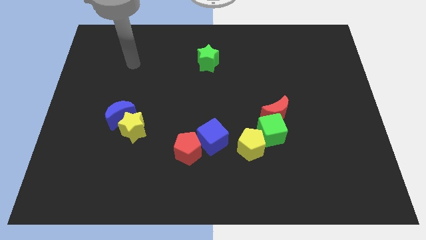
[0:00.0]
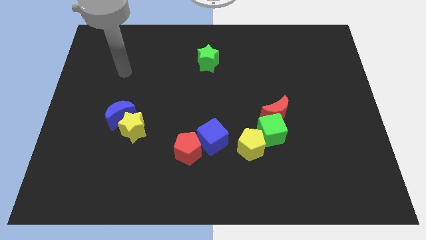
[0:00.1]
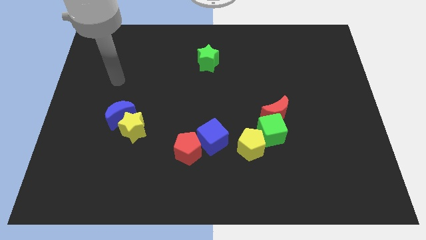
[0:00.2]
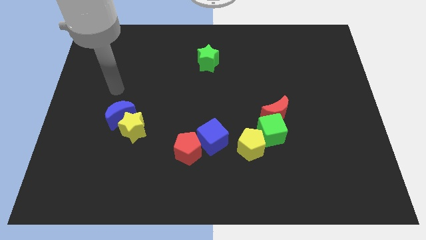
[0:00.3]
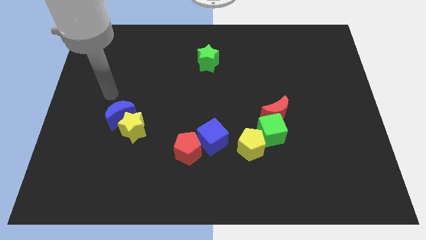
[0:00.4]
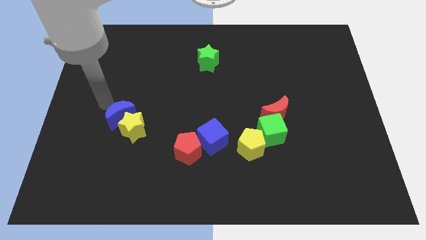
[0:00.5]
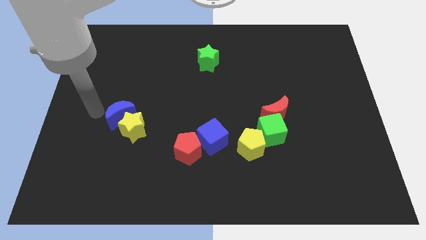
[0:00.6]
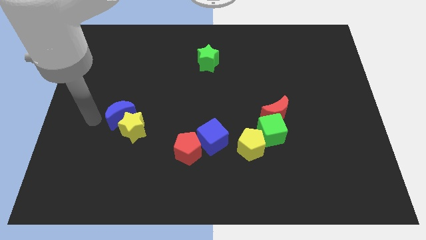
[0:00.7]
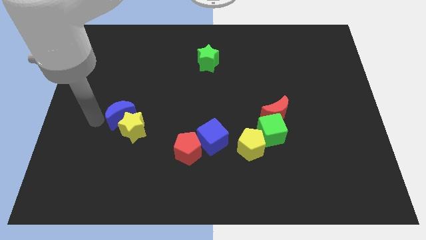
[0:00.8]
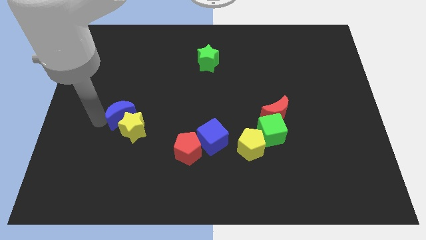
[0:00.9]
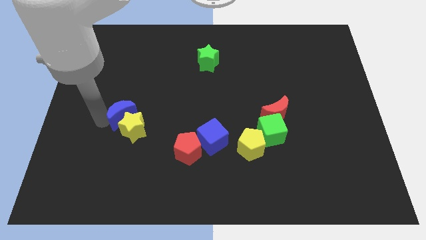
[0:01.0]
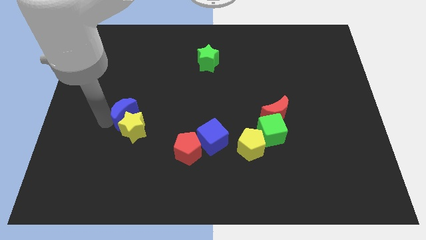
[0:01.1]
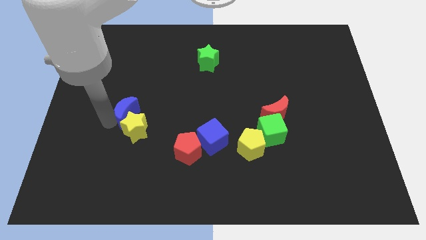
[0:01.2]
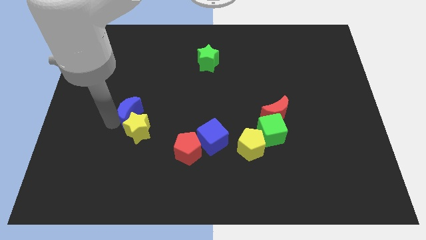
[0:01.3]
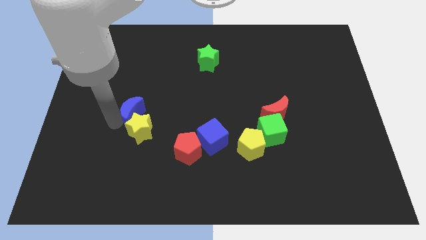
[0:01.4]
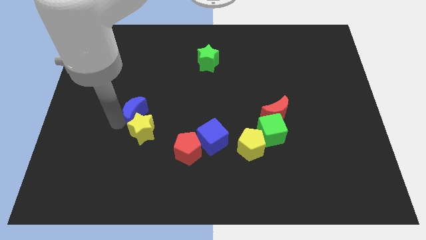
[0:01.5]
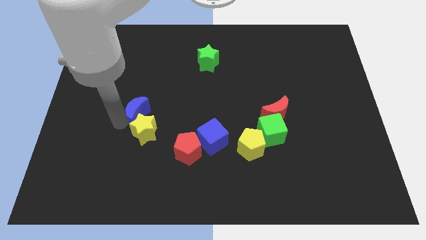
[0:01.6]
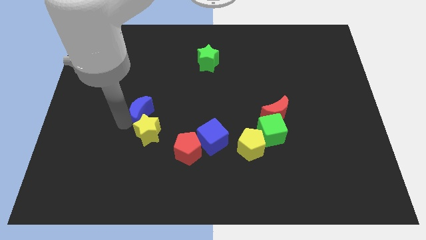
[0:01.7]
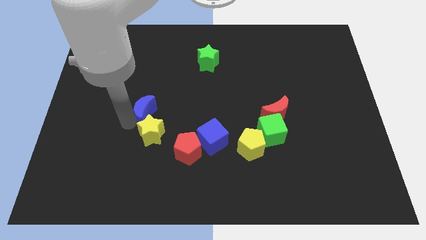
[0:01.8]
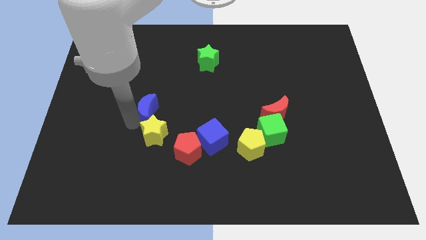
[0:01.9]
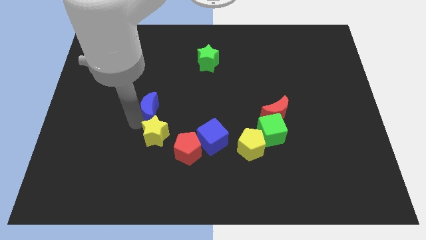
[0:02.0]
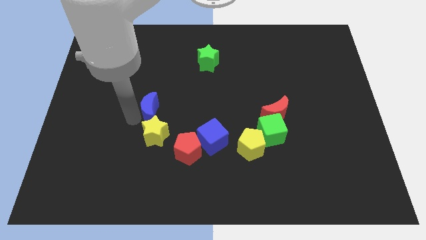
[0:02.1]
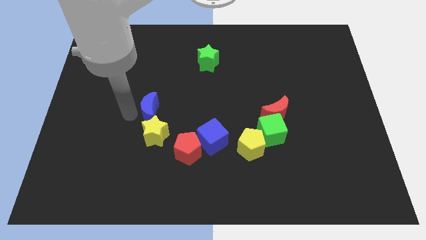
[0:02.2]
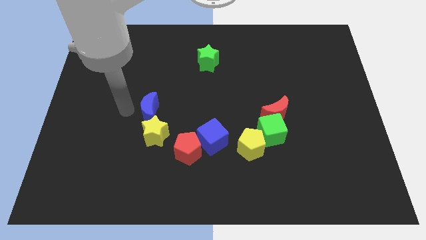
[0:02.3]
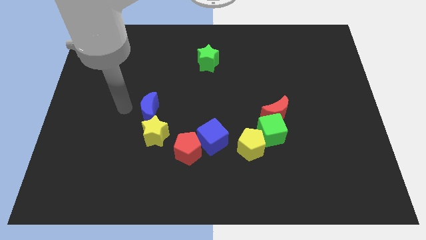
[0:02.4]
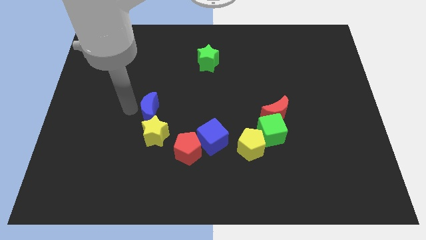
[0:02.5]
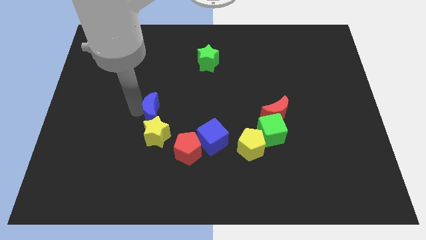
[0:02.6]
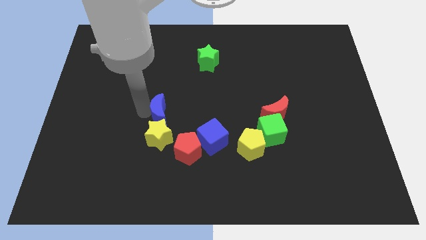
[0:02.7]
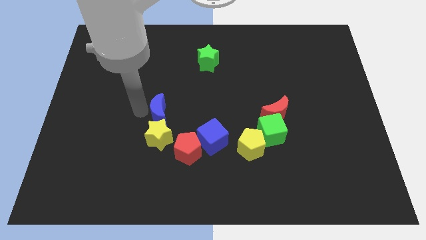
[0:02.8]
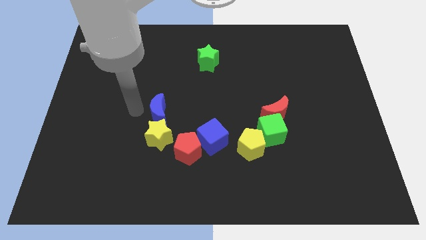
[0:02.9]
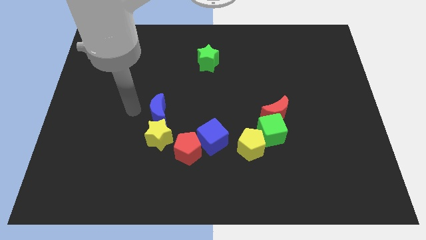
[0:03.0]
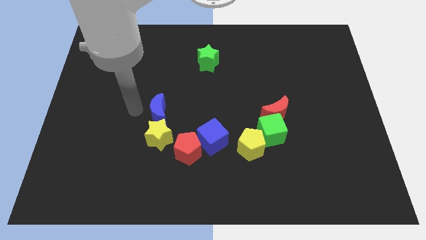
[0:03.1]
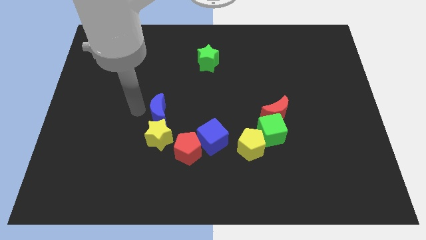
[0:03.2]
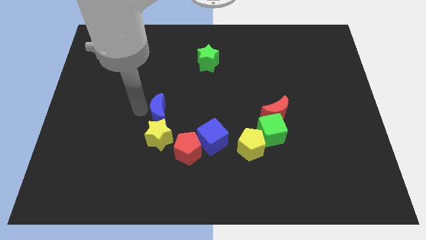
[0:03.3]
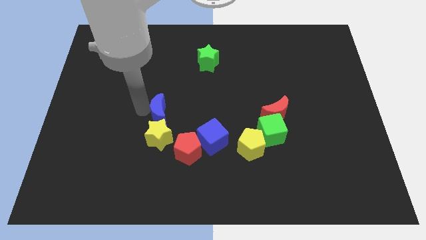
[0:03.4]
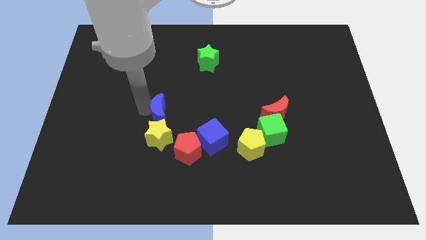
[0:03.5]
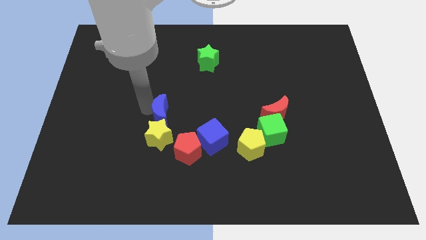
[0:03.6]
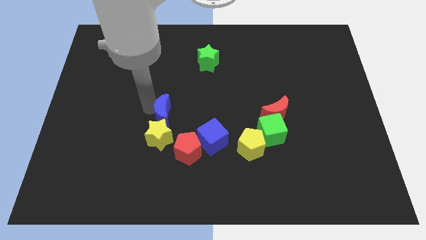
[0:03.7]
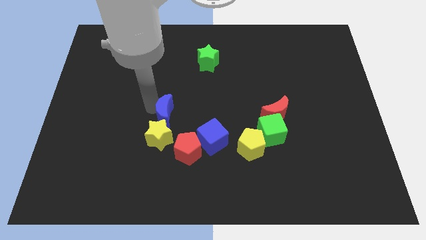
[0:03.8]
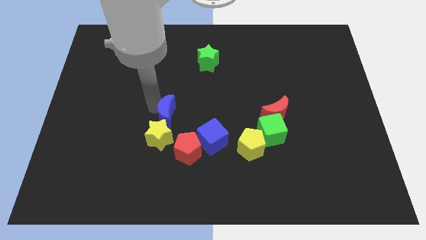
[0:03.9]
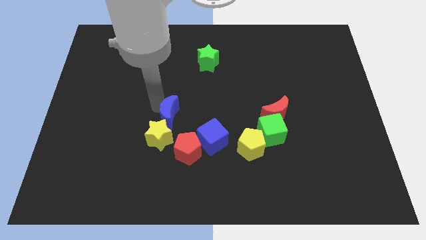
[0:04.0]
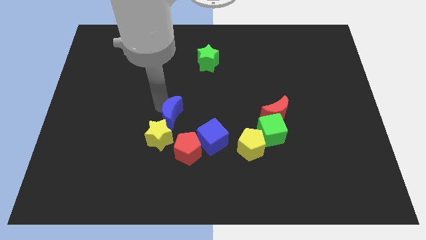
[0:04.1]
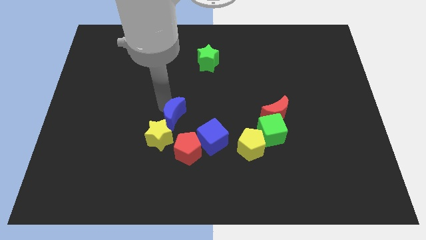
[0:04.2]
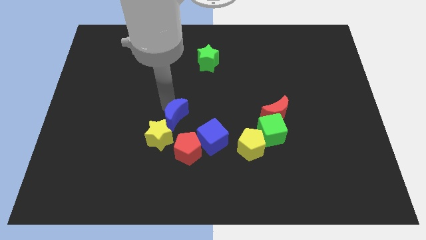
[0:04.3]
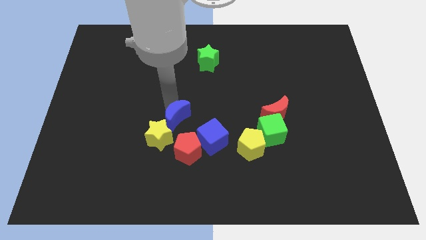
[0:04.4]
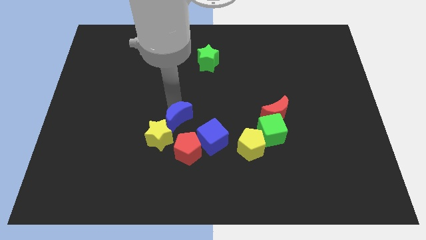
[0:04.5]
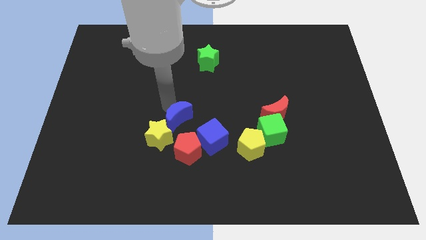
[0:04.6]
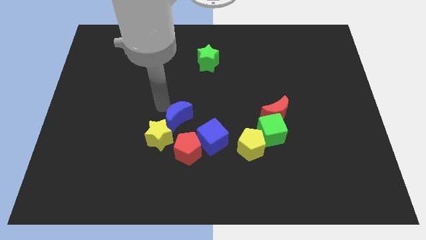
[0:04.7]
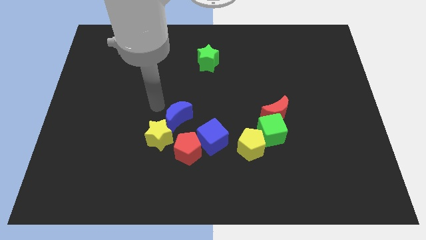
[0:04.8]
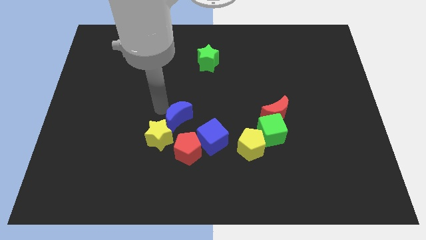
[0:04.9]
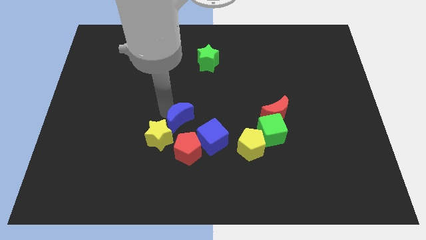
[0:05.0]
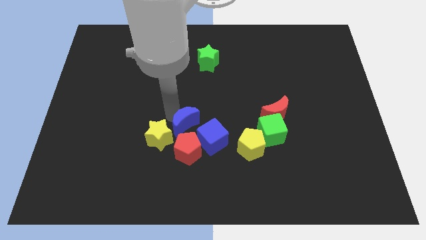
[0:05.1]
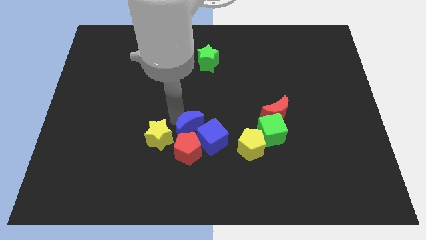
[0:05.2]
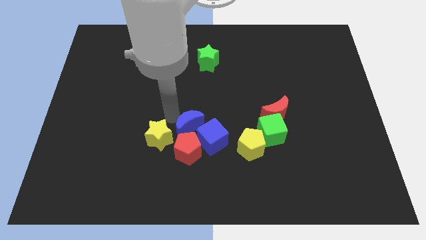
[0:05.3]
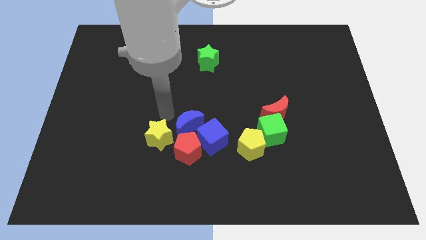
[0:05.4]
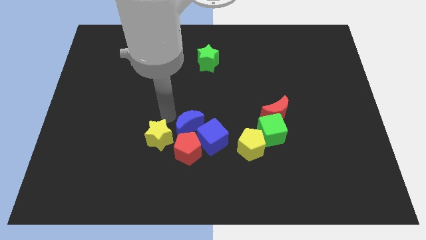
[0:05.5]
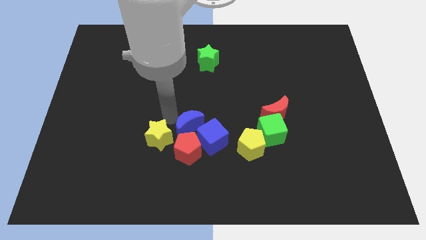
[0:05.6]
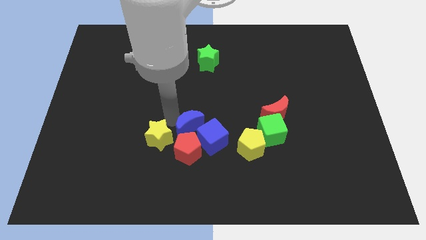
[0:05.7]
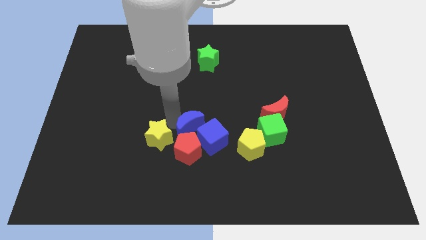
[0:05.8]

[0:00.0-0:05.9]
put the blue moon close to the blue cube

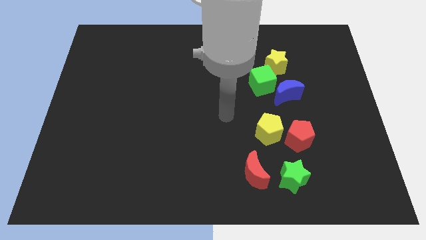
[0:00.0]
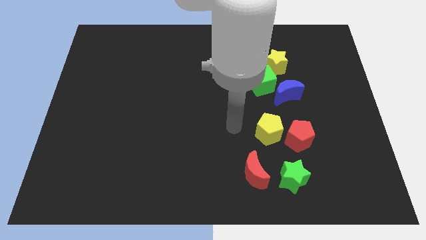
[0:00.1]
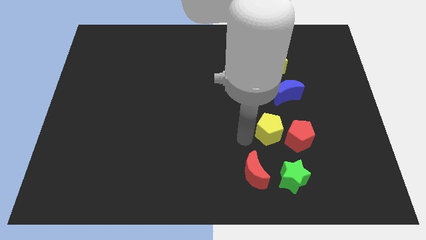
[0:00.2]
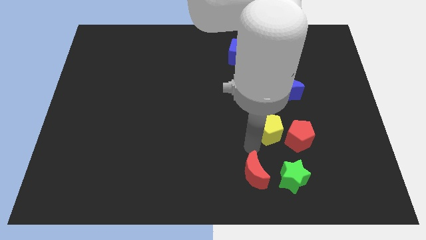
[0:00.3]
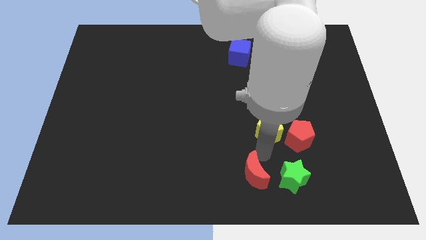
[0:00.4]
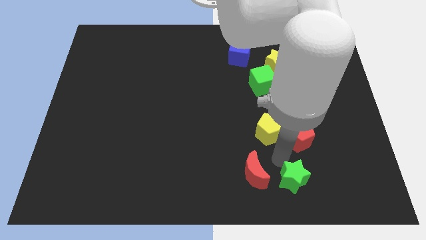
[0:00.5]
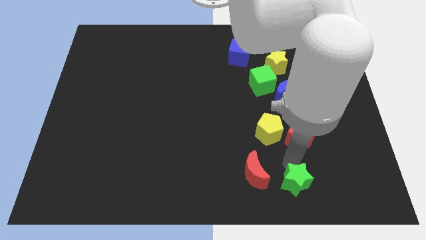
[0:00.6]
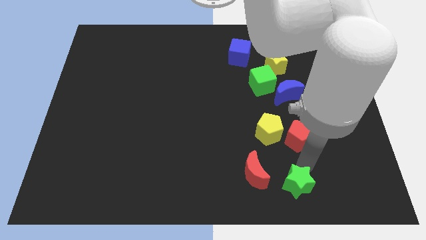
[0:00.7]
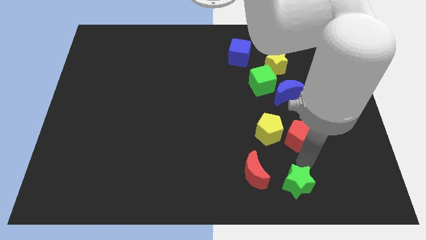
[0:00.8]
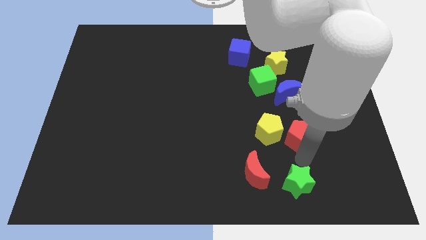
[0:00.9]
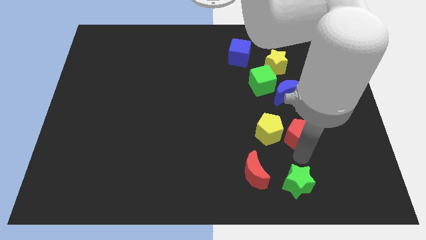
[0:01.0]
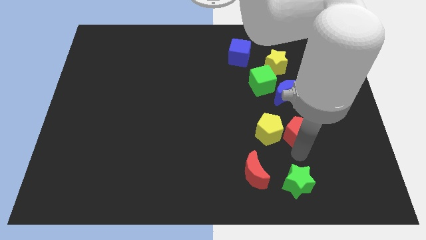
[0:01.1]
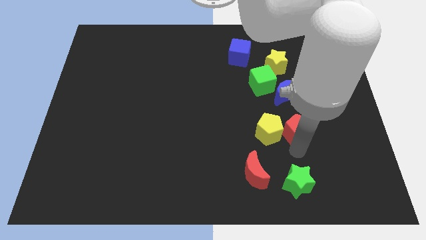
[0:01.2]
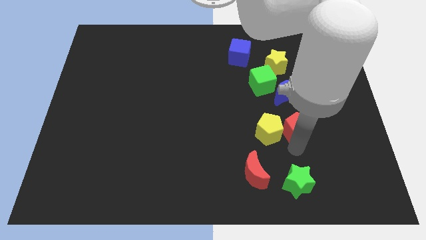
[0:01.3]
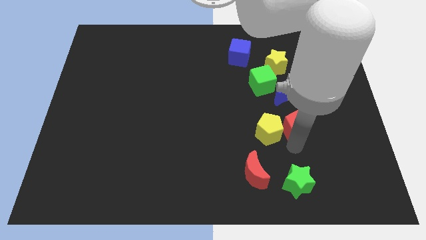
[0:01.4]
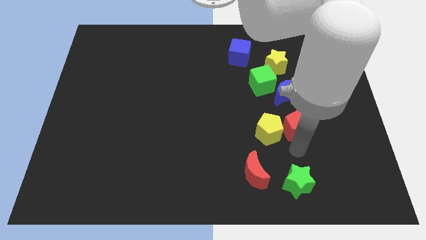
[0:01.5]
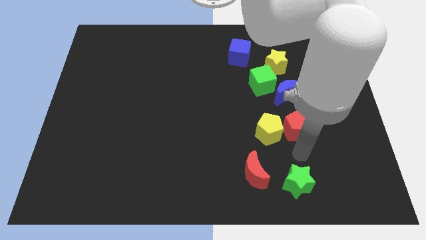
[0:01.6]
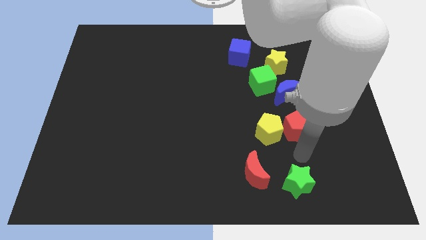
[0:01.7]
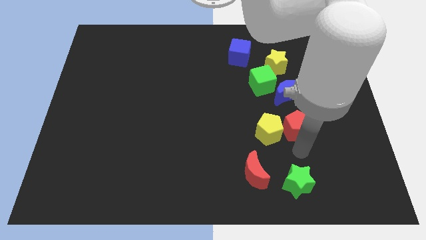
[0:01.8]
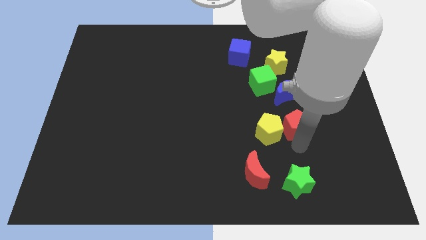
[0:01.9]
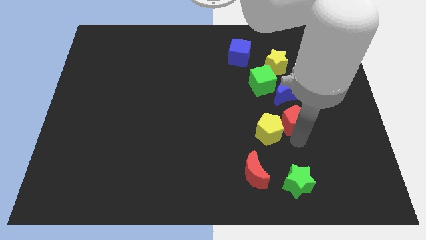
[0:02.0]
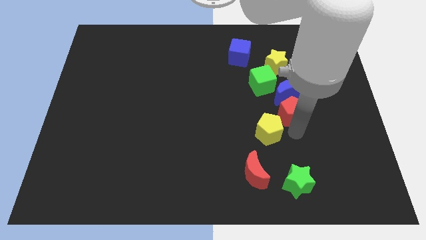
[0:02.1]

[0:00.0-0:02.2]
slide the red pentagon close to the blue moon
